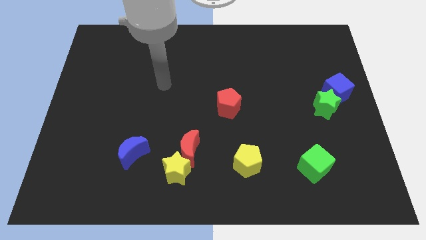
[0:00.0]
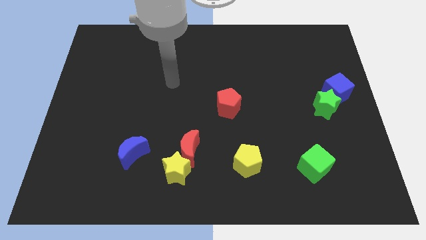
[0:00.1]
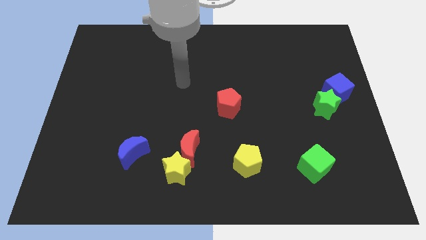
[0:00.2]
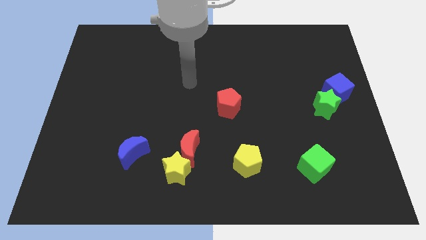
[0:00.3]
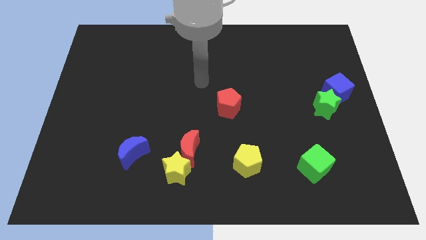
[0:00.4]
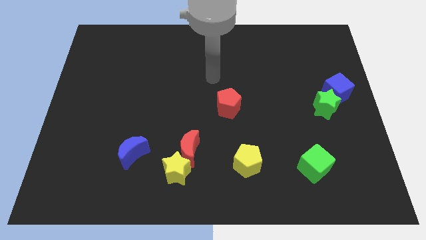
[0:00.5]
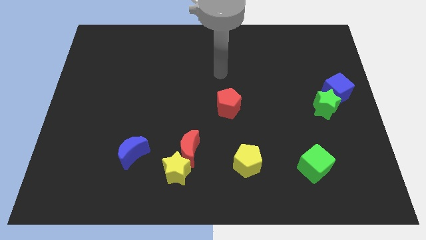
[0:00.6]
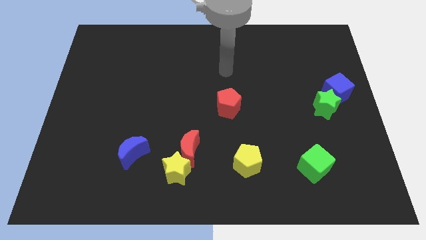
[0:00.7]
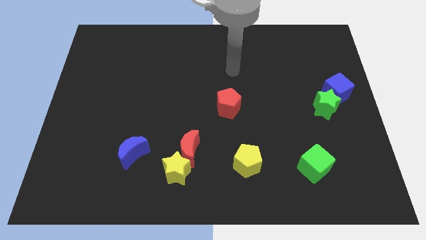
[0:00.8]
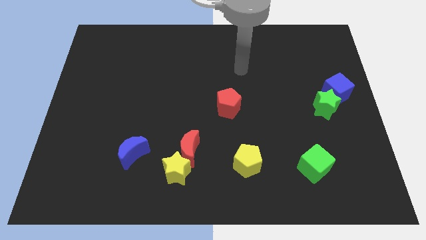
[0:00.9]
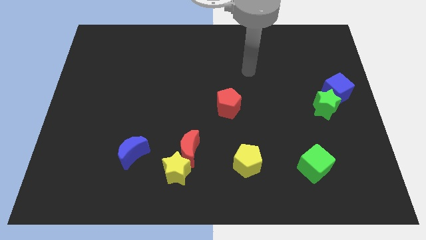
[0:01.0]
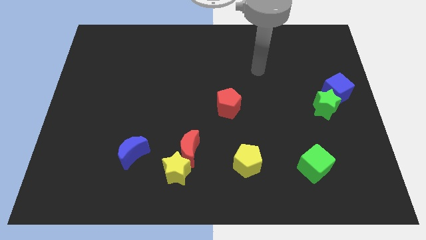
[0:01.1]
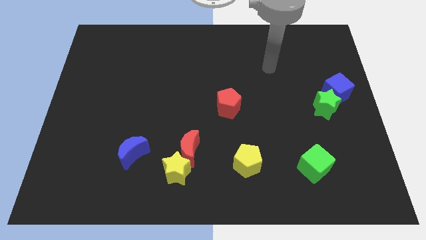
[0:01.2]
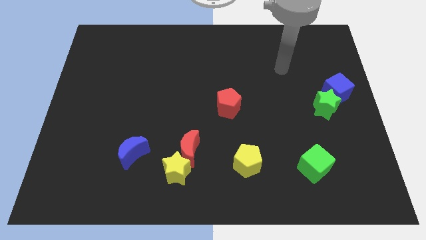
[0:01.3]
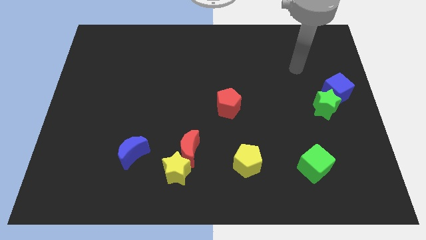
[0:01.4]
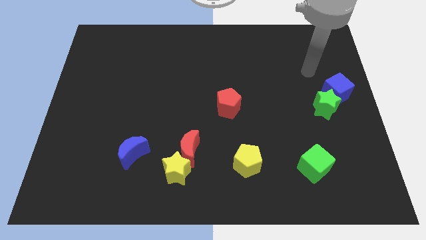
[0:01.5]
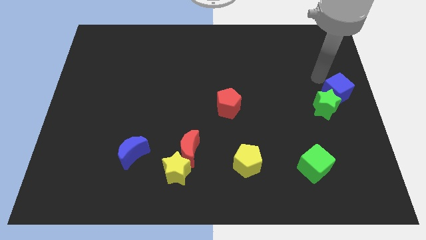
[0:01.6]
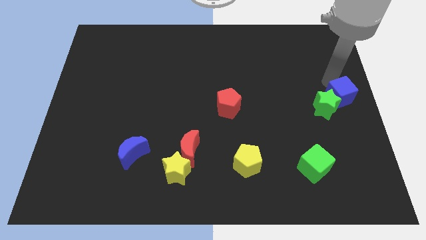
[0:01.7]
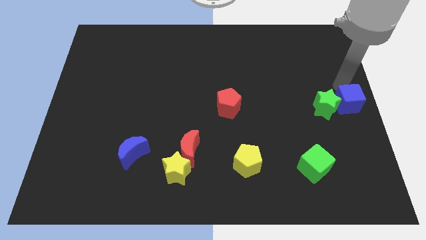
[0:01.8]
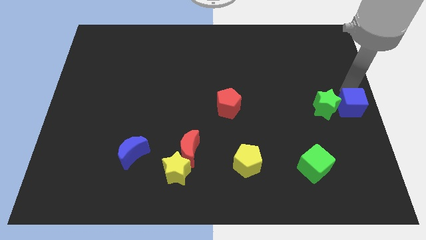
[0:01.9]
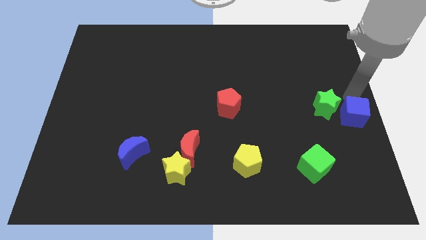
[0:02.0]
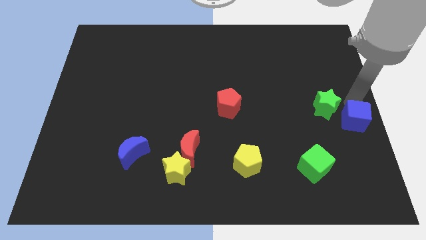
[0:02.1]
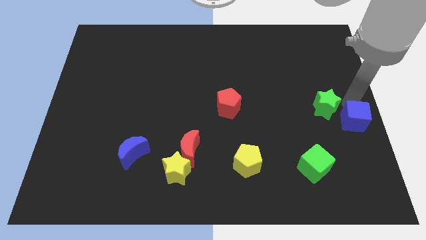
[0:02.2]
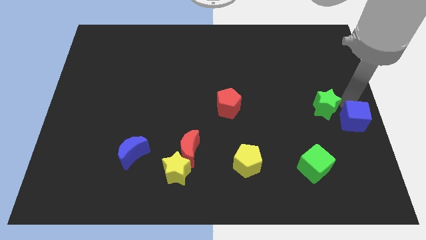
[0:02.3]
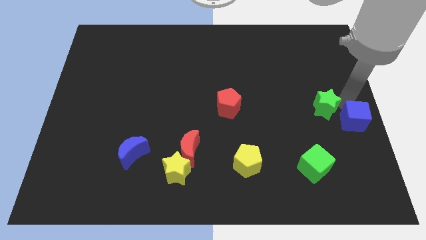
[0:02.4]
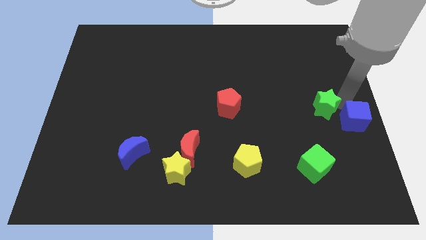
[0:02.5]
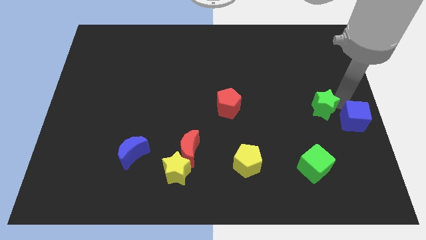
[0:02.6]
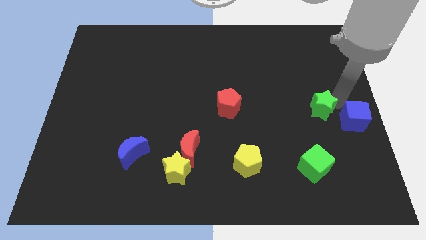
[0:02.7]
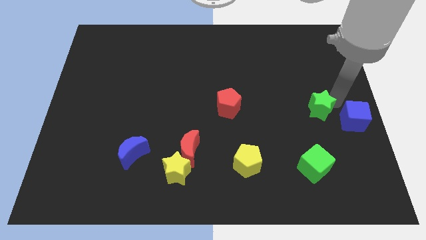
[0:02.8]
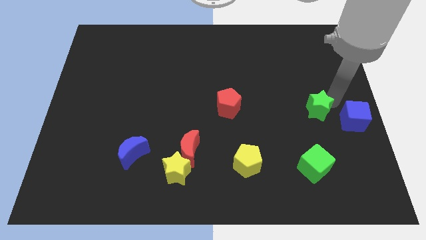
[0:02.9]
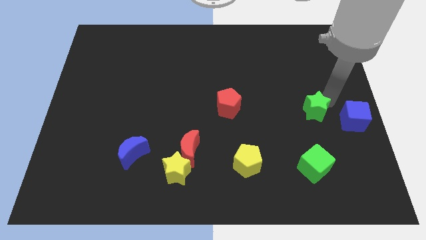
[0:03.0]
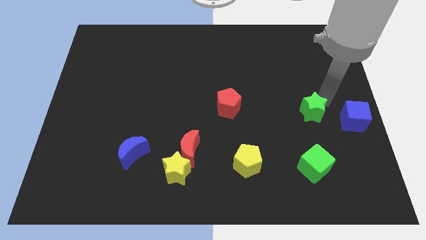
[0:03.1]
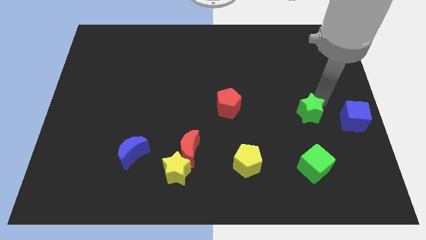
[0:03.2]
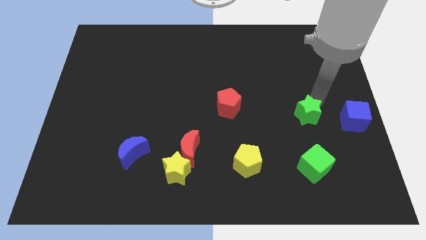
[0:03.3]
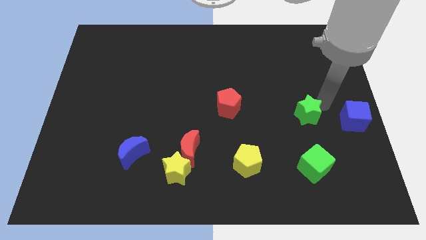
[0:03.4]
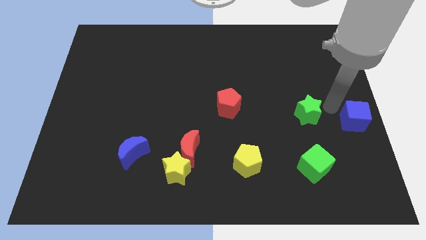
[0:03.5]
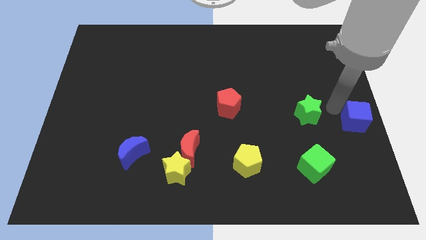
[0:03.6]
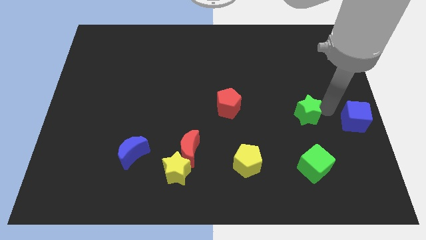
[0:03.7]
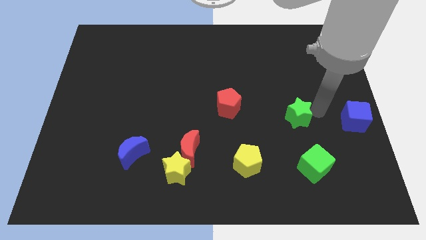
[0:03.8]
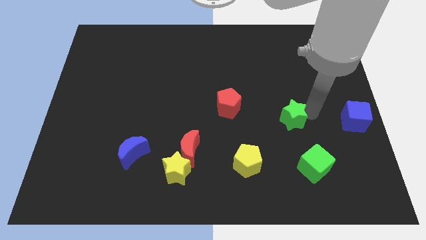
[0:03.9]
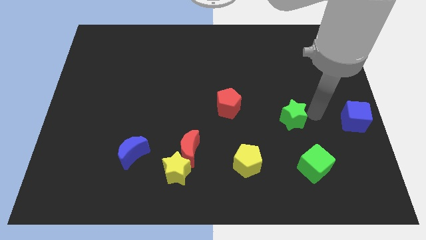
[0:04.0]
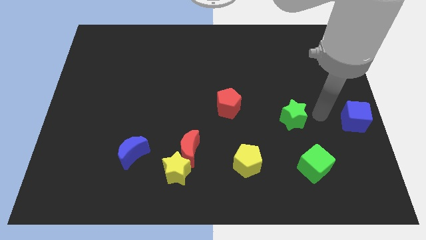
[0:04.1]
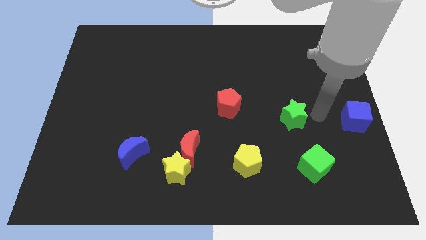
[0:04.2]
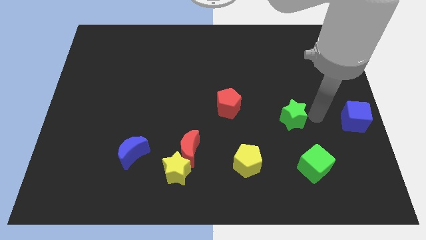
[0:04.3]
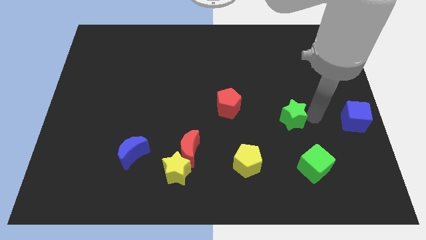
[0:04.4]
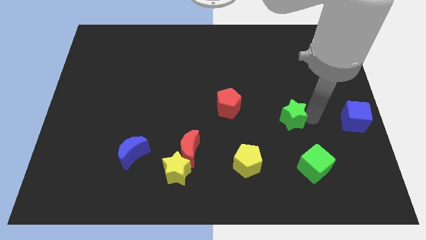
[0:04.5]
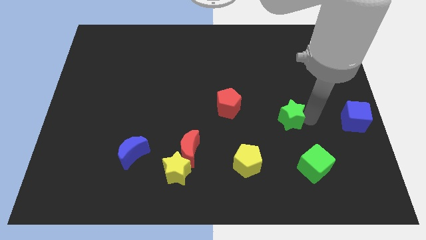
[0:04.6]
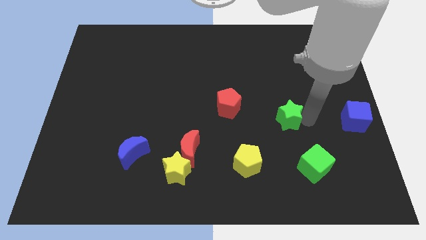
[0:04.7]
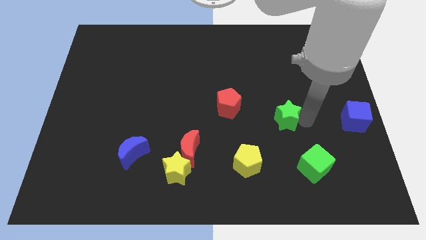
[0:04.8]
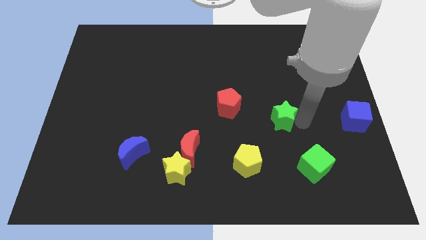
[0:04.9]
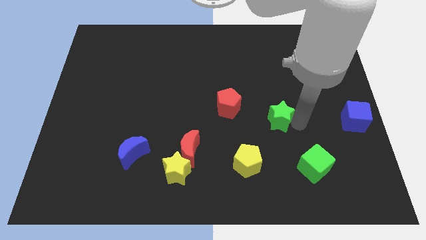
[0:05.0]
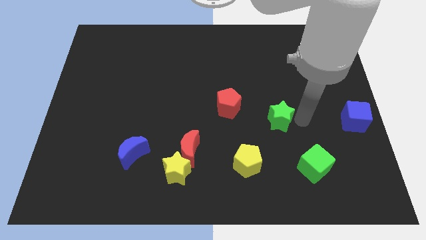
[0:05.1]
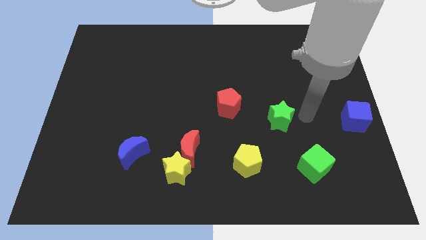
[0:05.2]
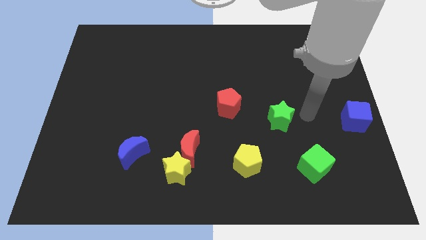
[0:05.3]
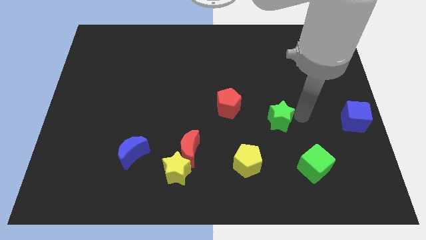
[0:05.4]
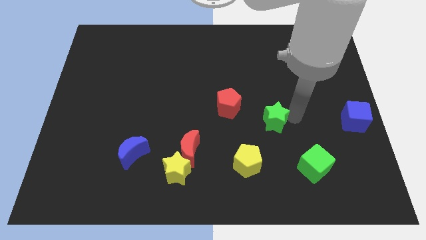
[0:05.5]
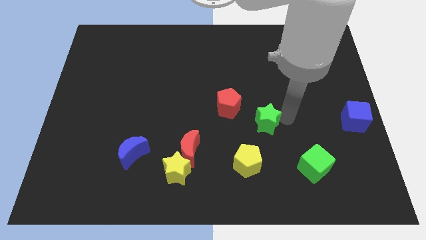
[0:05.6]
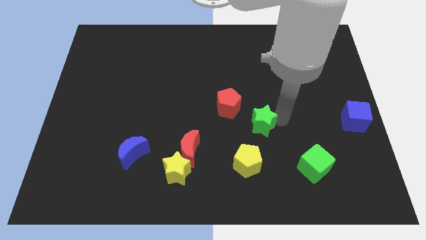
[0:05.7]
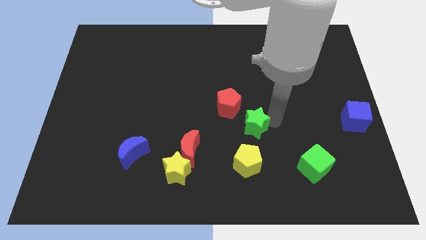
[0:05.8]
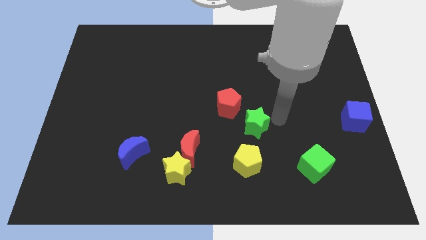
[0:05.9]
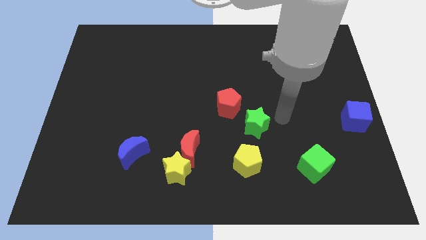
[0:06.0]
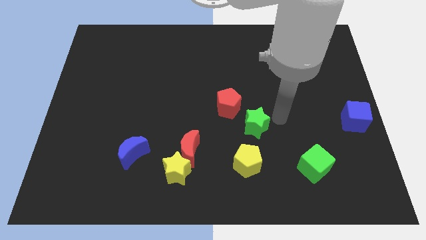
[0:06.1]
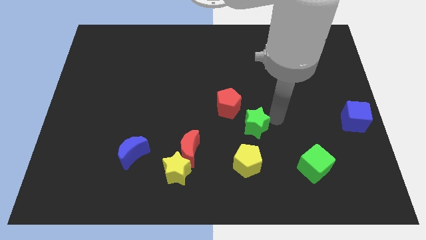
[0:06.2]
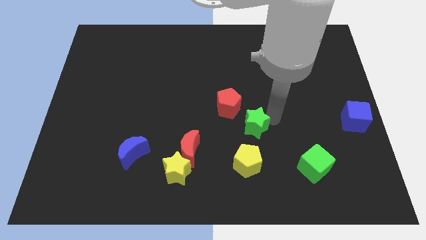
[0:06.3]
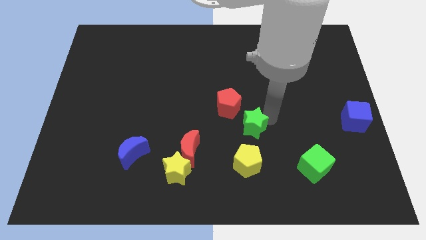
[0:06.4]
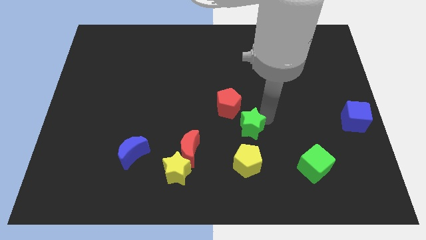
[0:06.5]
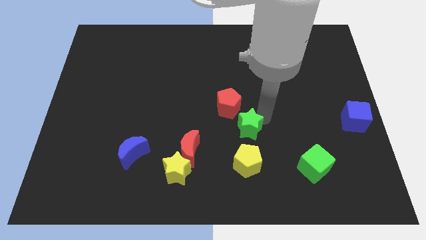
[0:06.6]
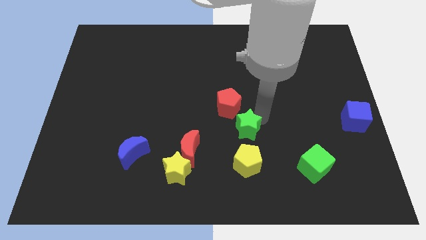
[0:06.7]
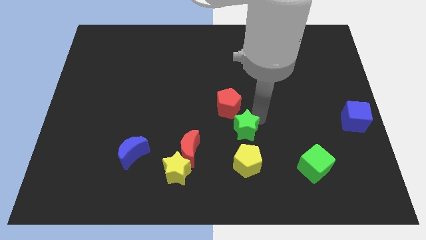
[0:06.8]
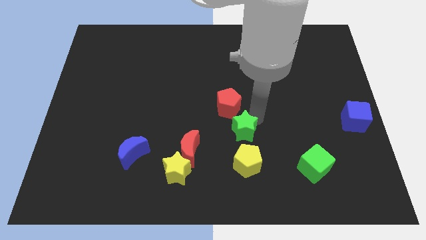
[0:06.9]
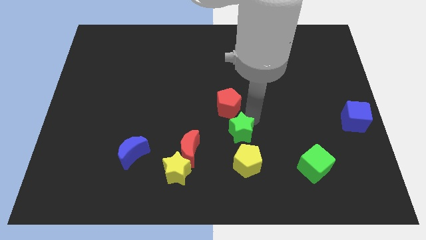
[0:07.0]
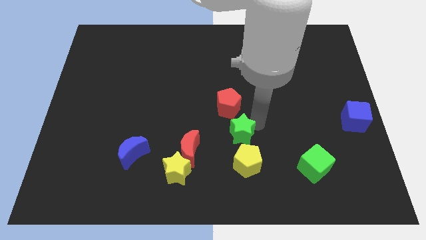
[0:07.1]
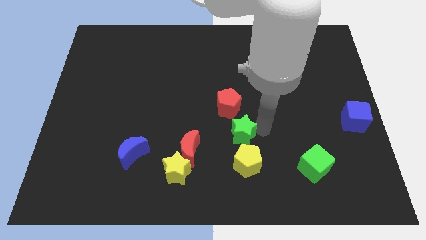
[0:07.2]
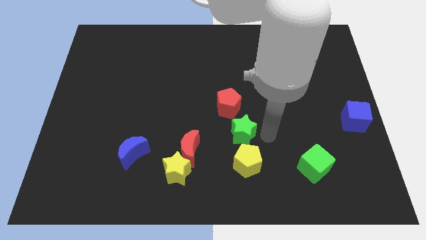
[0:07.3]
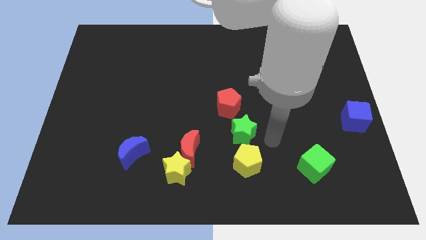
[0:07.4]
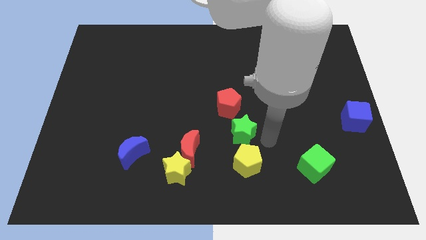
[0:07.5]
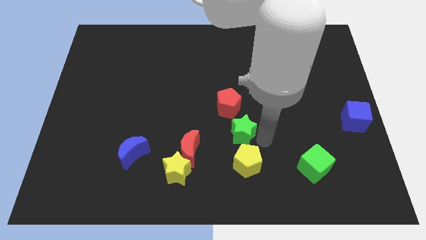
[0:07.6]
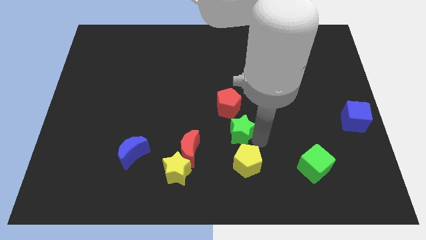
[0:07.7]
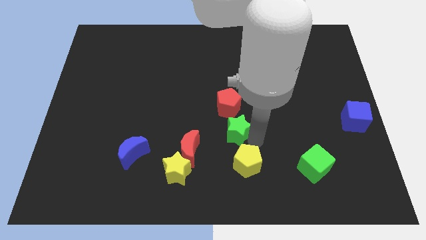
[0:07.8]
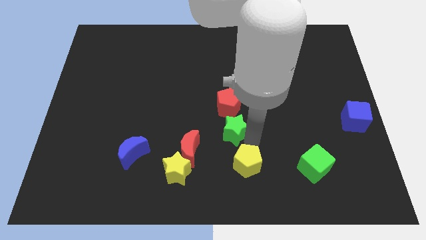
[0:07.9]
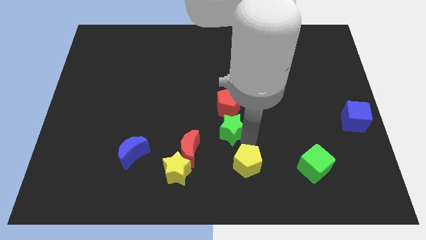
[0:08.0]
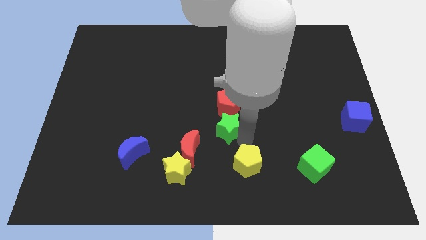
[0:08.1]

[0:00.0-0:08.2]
put the green star to the bottom left side of the red pentagon
